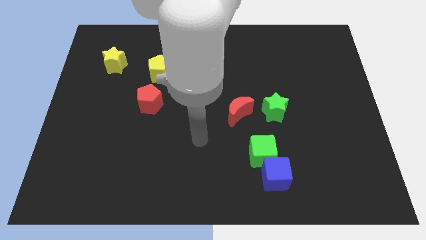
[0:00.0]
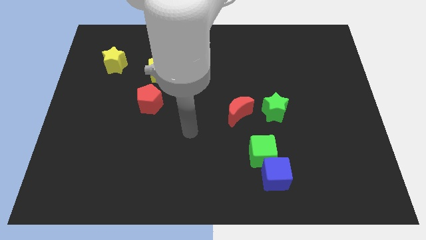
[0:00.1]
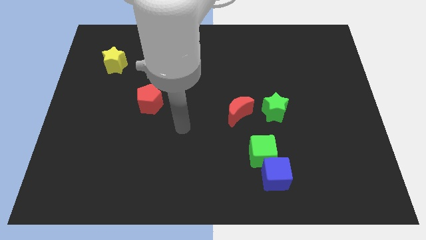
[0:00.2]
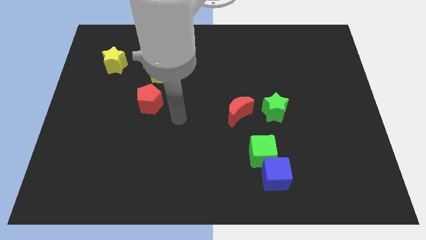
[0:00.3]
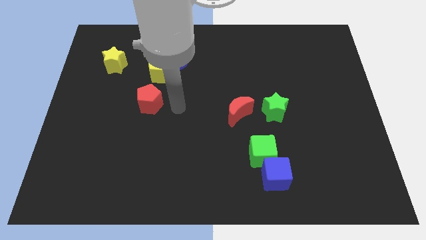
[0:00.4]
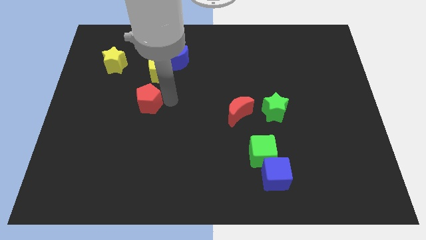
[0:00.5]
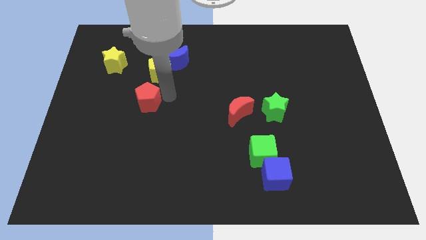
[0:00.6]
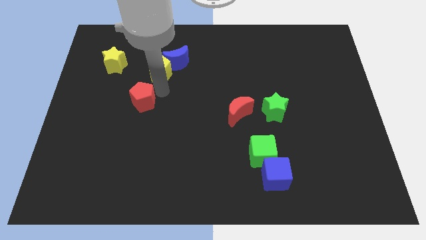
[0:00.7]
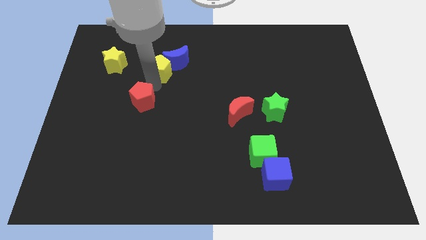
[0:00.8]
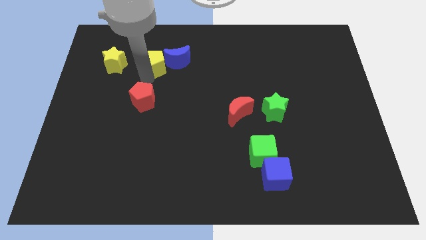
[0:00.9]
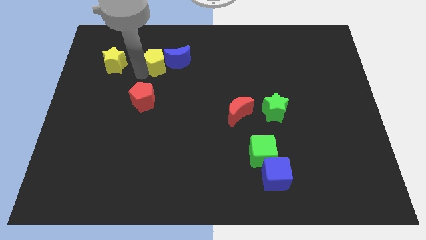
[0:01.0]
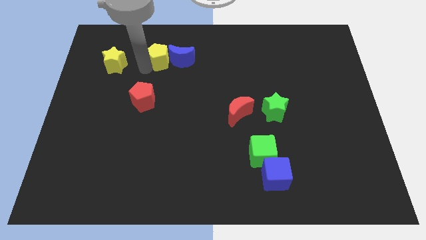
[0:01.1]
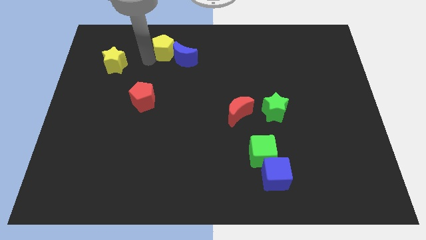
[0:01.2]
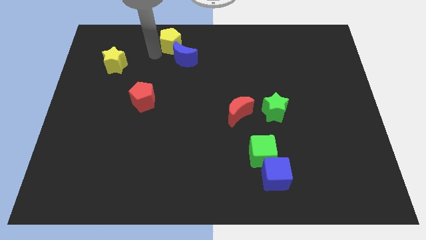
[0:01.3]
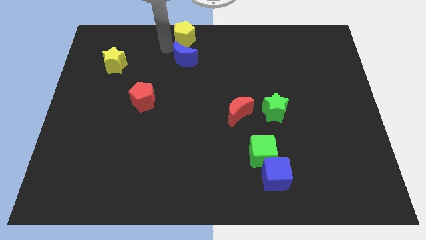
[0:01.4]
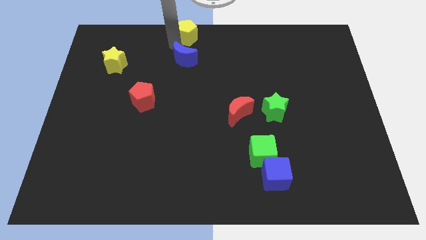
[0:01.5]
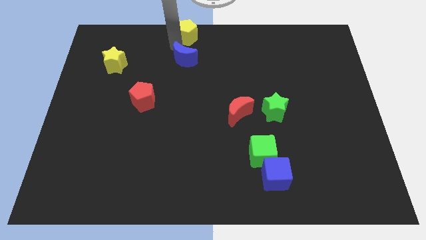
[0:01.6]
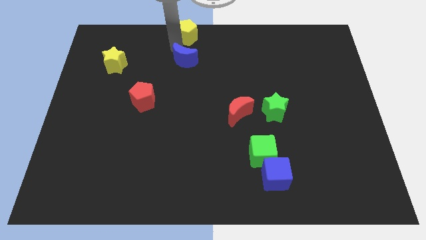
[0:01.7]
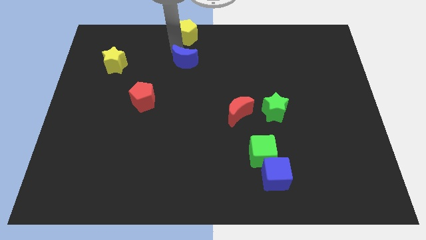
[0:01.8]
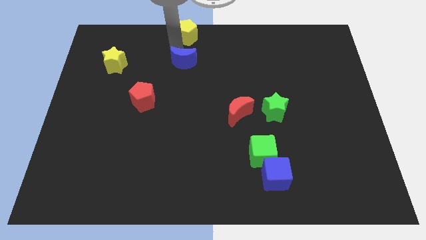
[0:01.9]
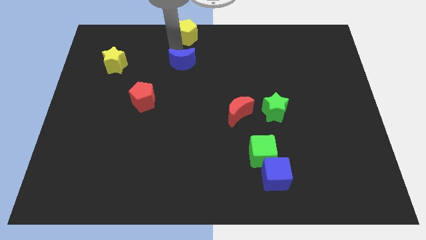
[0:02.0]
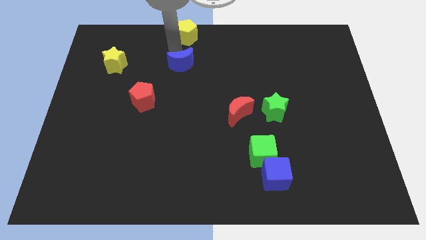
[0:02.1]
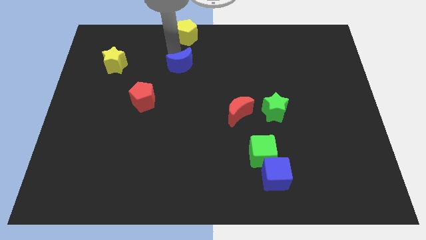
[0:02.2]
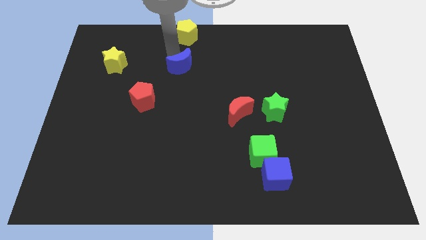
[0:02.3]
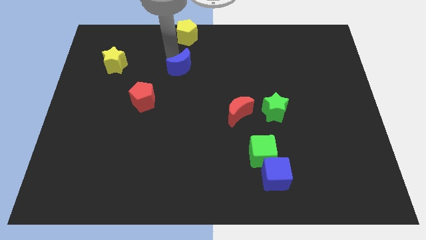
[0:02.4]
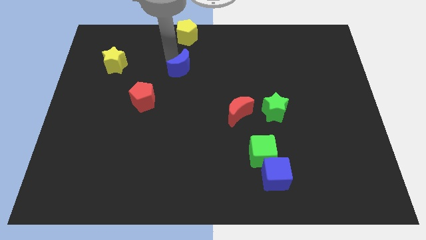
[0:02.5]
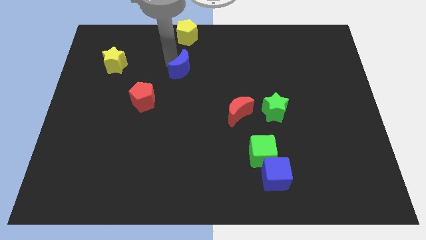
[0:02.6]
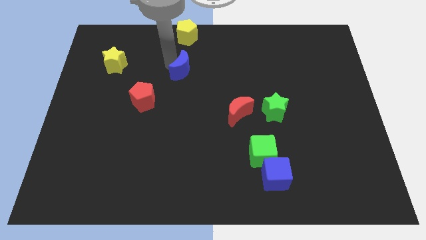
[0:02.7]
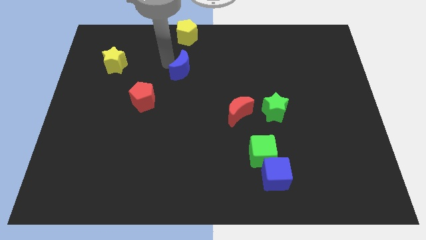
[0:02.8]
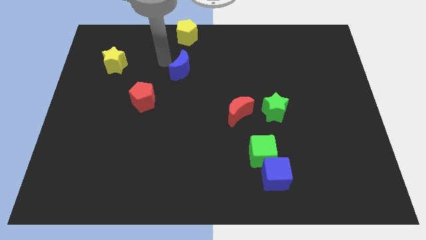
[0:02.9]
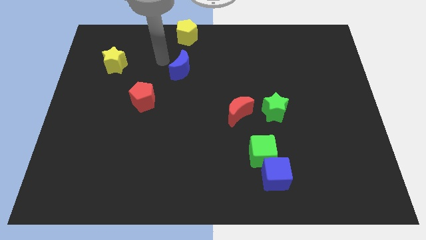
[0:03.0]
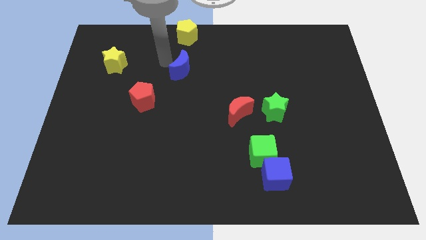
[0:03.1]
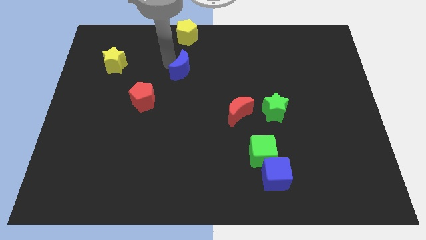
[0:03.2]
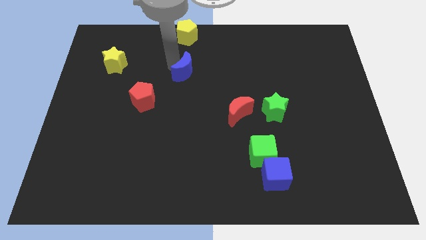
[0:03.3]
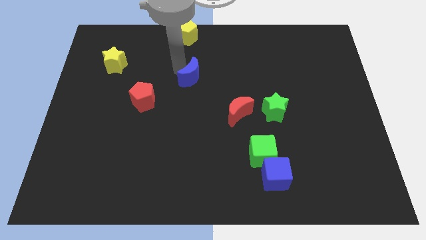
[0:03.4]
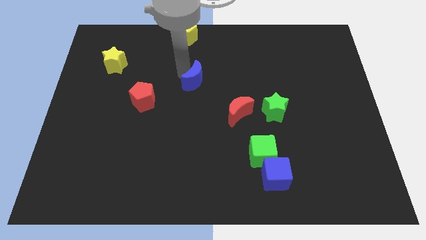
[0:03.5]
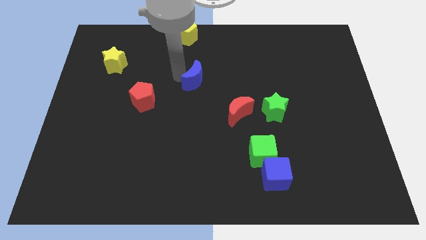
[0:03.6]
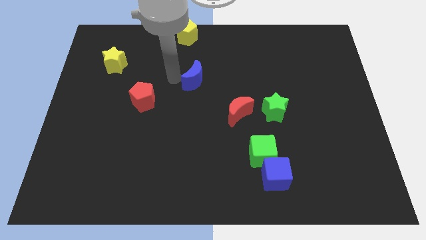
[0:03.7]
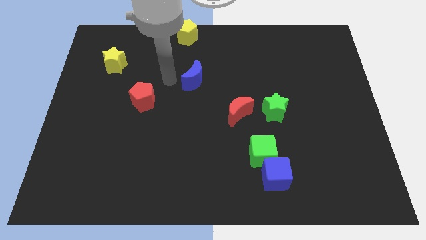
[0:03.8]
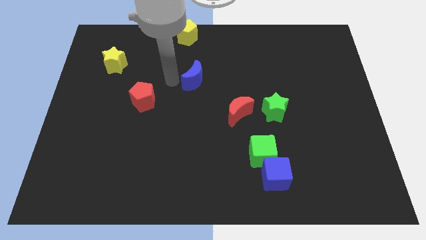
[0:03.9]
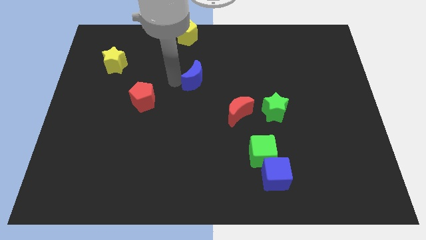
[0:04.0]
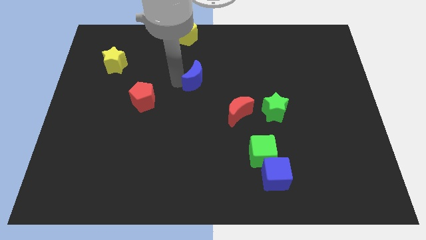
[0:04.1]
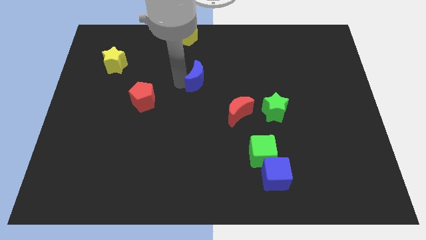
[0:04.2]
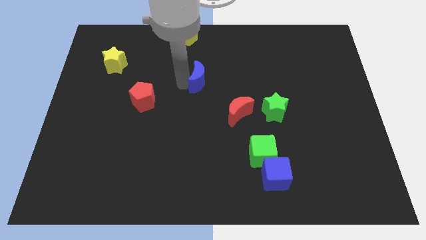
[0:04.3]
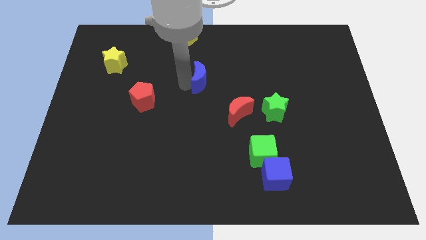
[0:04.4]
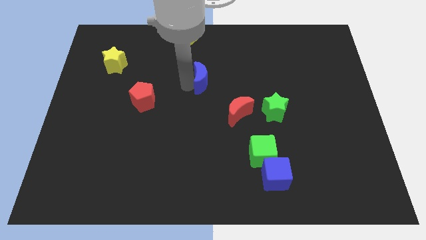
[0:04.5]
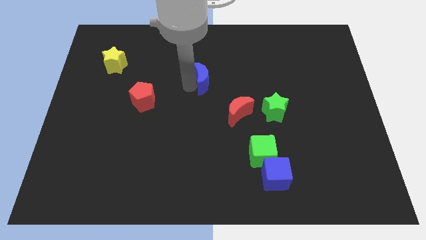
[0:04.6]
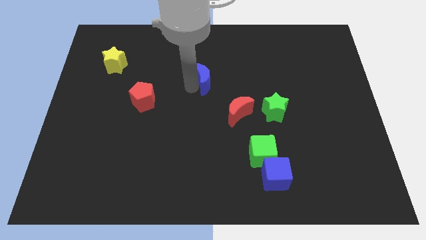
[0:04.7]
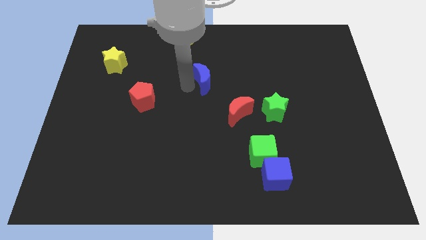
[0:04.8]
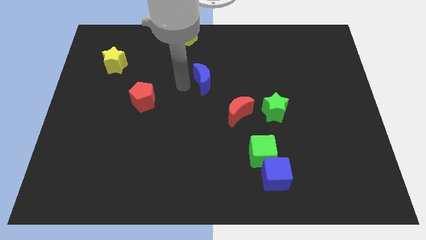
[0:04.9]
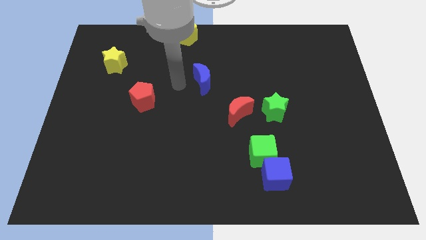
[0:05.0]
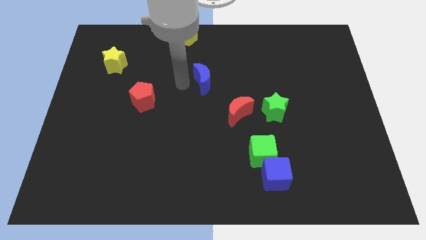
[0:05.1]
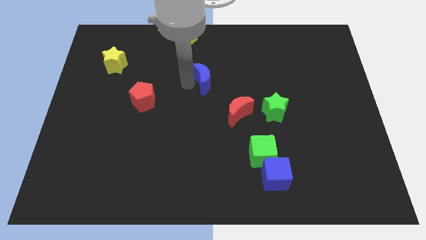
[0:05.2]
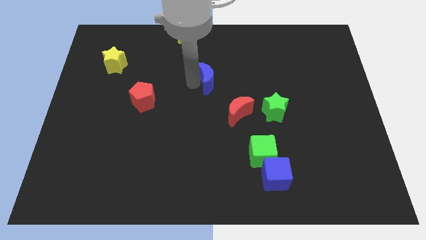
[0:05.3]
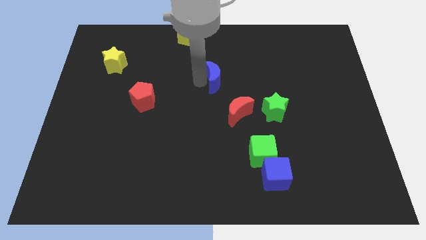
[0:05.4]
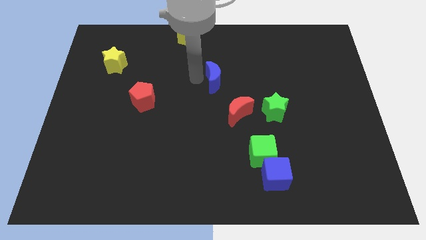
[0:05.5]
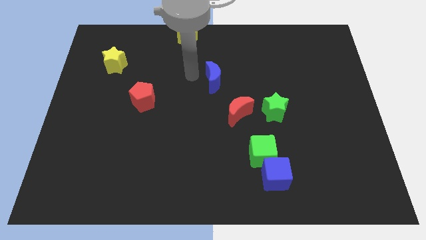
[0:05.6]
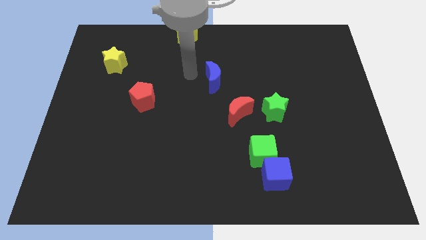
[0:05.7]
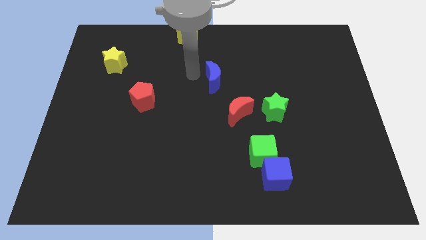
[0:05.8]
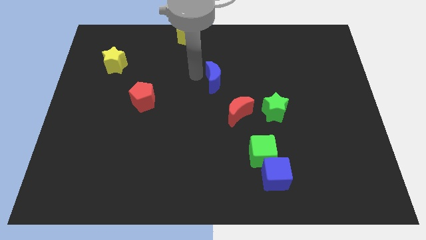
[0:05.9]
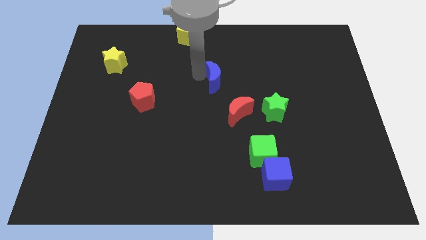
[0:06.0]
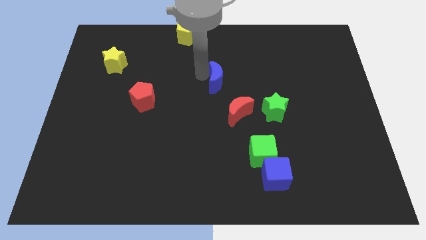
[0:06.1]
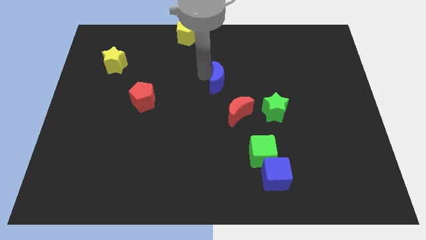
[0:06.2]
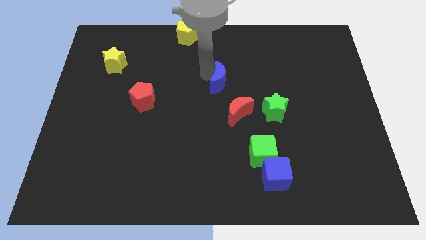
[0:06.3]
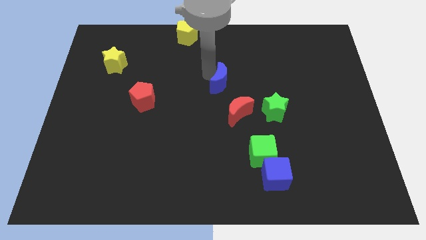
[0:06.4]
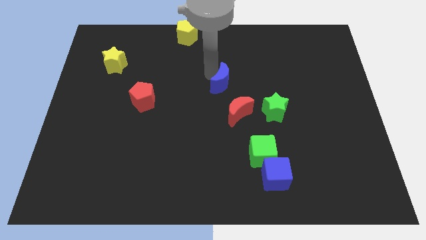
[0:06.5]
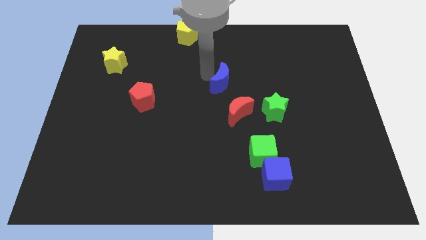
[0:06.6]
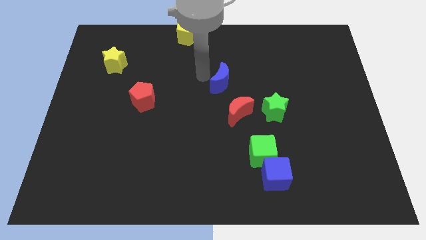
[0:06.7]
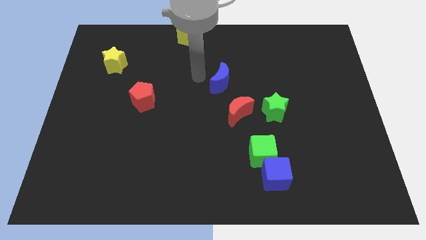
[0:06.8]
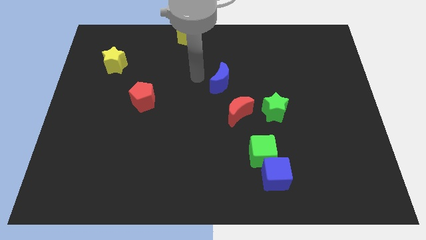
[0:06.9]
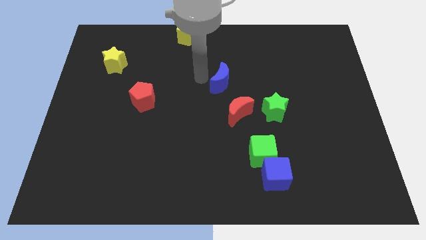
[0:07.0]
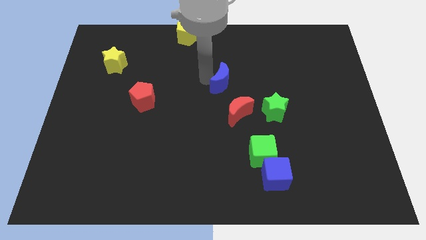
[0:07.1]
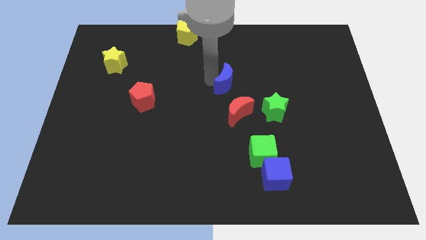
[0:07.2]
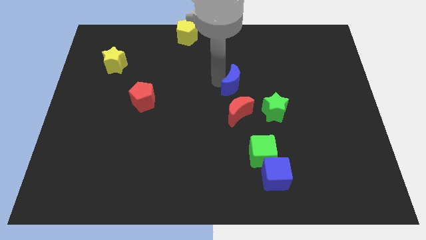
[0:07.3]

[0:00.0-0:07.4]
slide the blue moon to the top left of the green star
